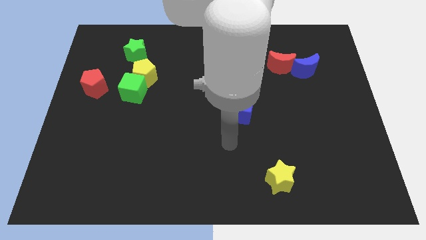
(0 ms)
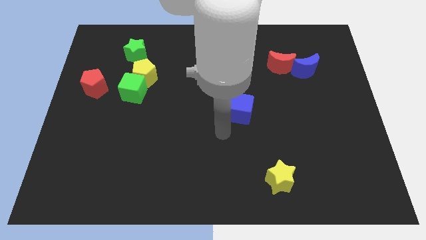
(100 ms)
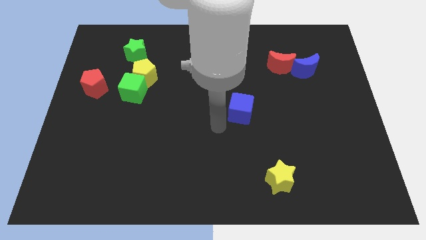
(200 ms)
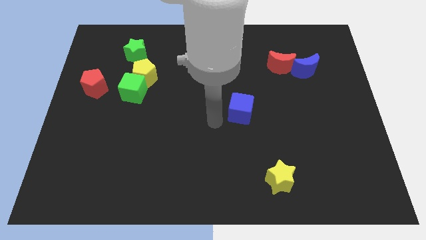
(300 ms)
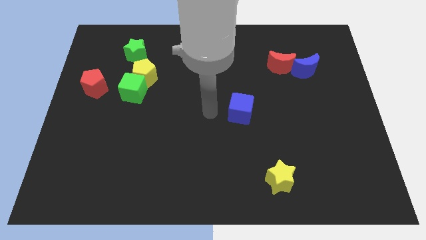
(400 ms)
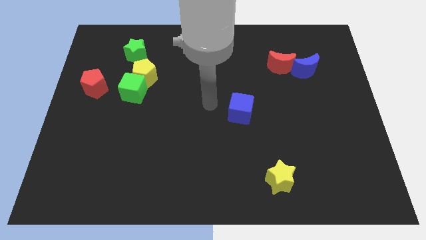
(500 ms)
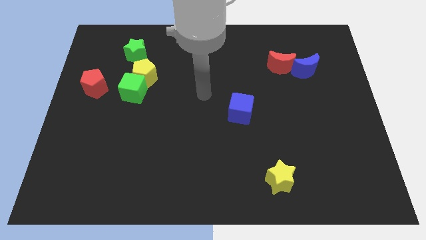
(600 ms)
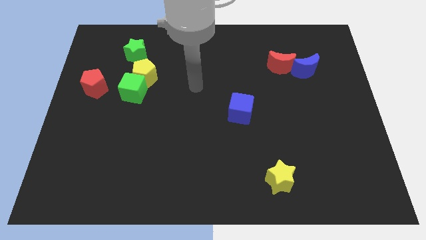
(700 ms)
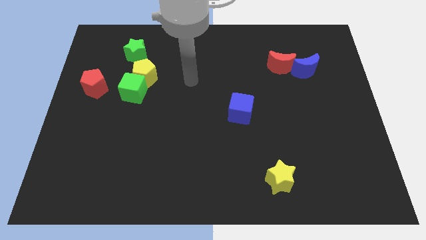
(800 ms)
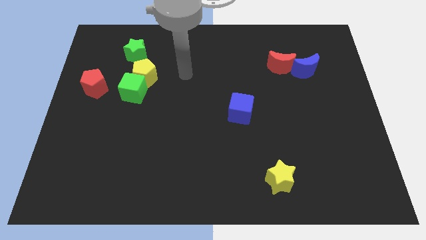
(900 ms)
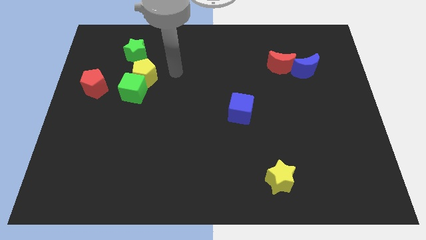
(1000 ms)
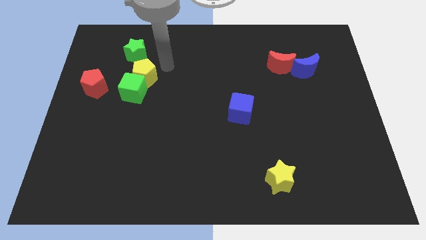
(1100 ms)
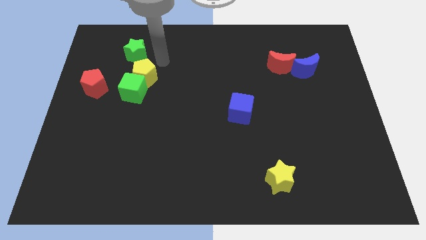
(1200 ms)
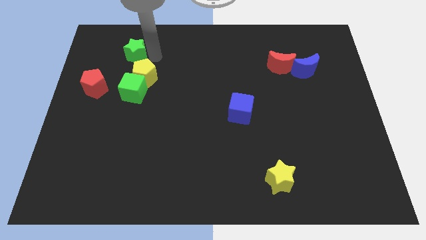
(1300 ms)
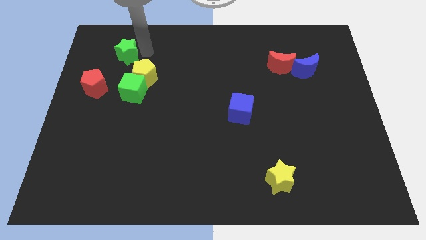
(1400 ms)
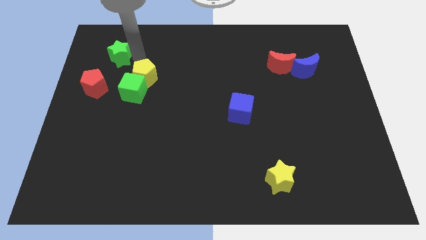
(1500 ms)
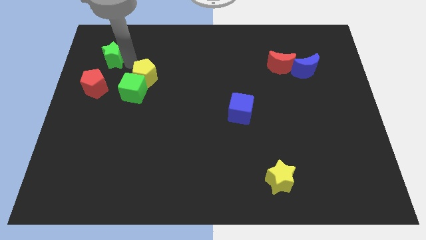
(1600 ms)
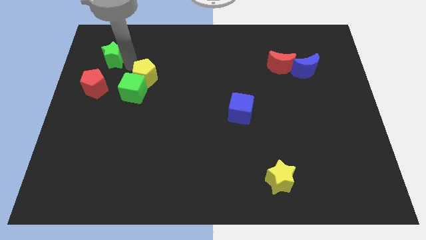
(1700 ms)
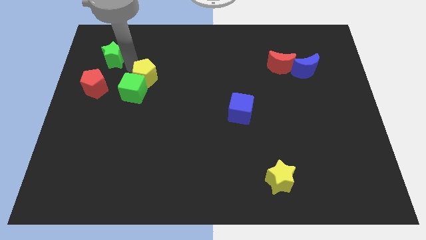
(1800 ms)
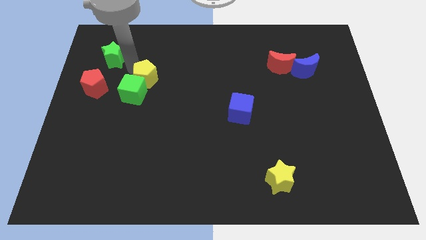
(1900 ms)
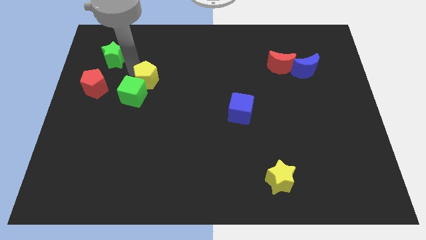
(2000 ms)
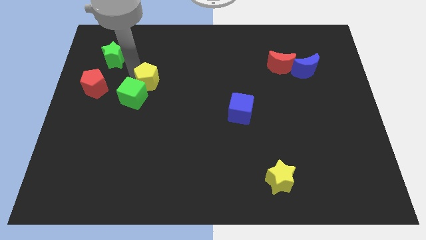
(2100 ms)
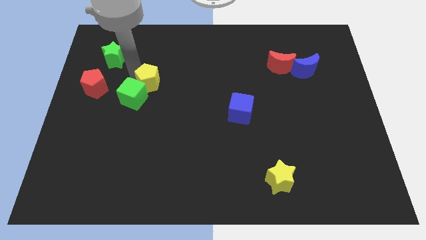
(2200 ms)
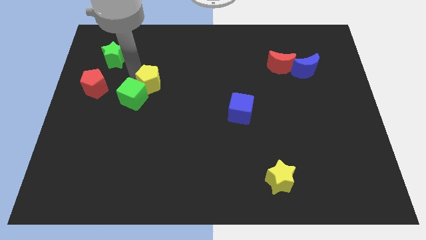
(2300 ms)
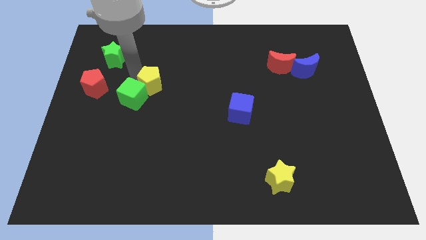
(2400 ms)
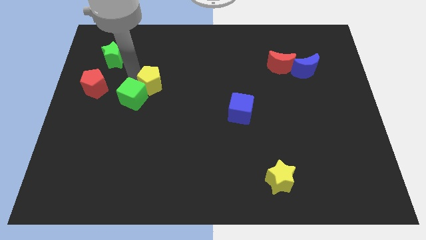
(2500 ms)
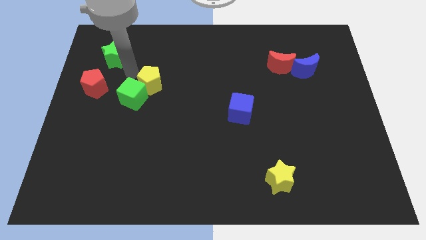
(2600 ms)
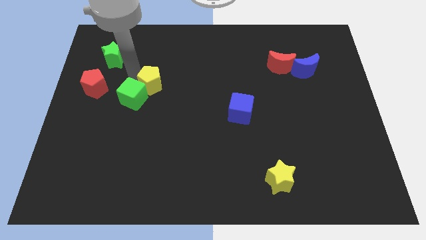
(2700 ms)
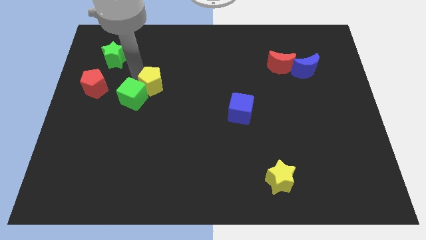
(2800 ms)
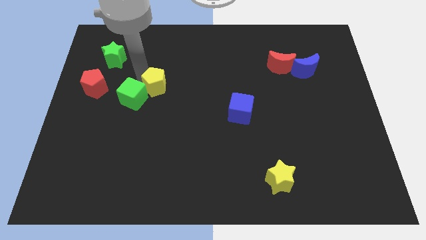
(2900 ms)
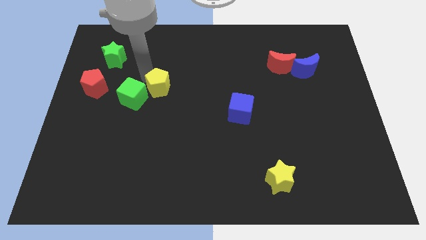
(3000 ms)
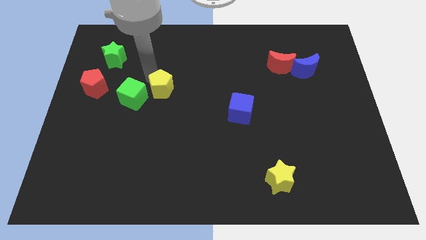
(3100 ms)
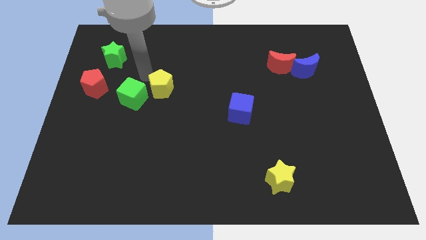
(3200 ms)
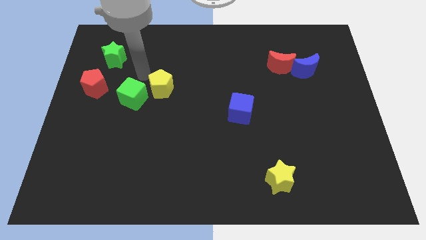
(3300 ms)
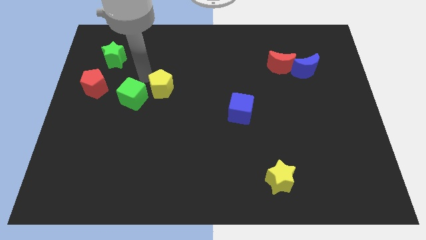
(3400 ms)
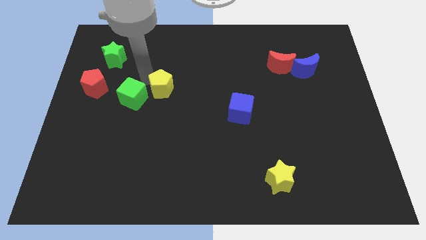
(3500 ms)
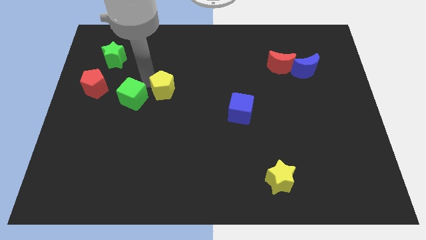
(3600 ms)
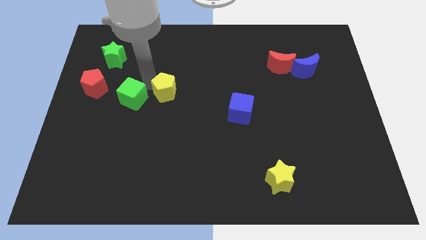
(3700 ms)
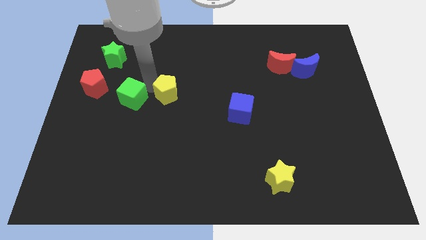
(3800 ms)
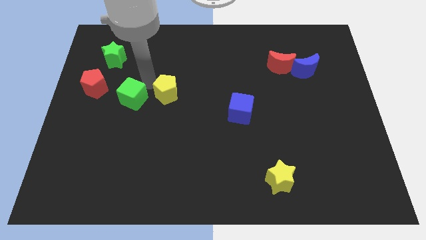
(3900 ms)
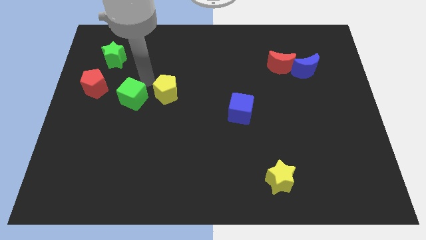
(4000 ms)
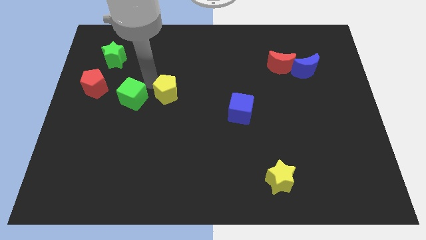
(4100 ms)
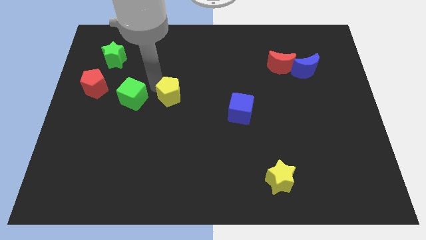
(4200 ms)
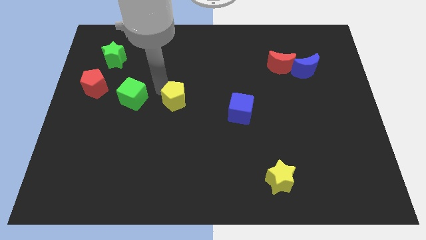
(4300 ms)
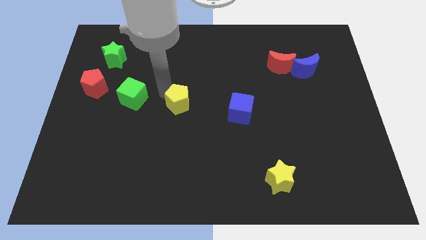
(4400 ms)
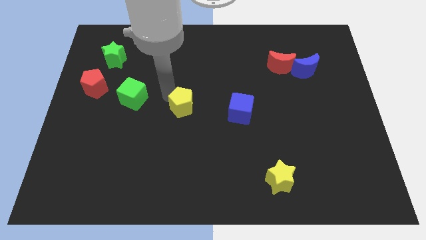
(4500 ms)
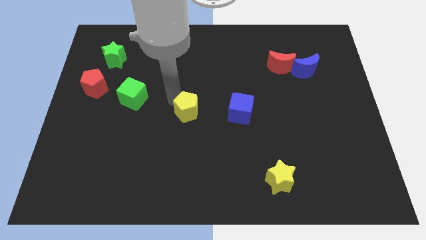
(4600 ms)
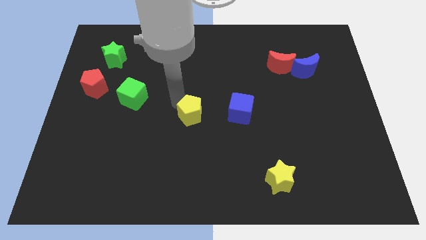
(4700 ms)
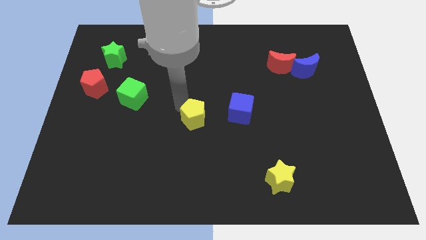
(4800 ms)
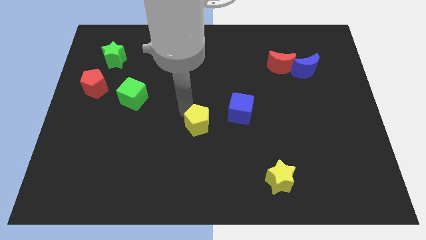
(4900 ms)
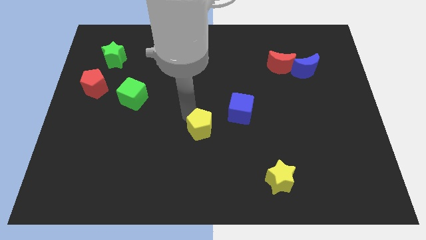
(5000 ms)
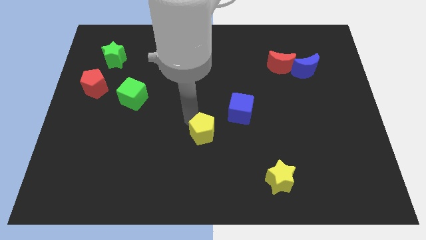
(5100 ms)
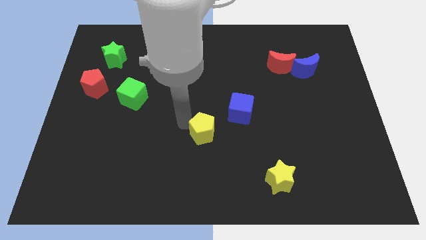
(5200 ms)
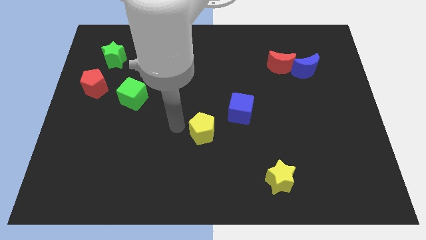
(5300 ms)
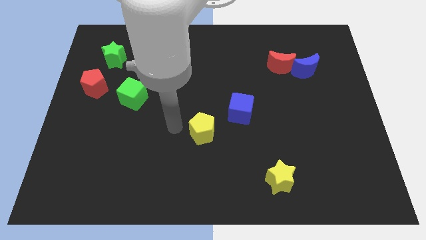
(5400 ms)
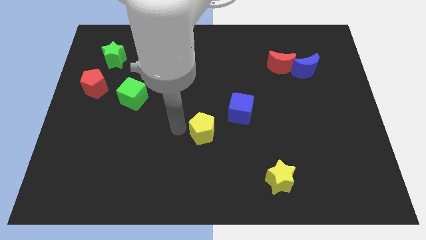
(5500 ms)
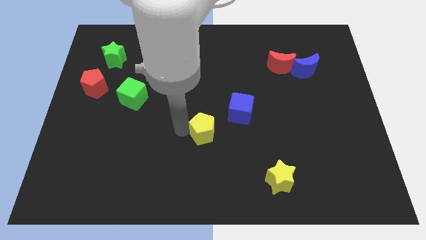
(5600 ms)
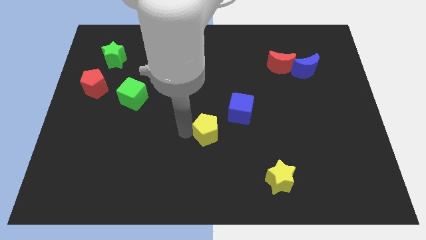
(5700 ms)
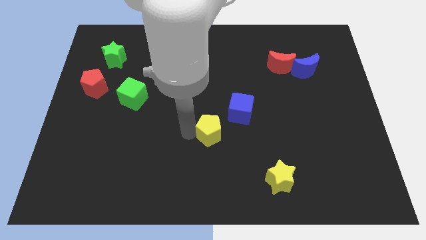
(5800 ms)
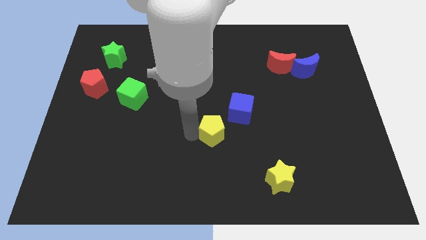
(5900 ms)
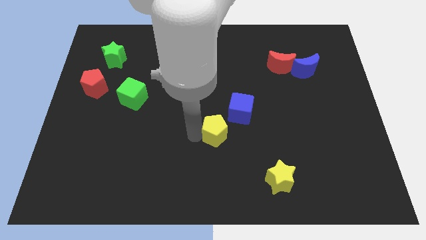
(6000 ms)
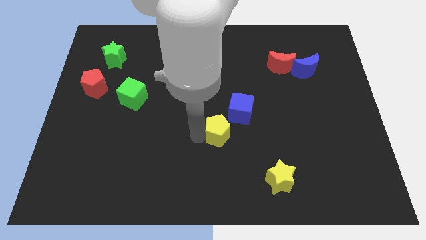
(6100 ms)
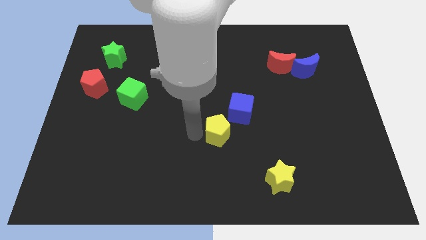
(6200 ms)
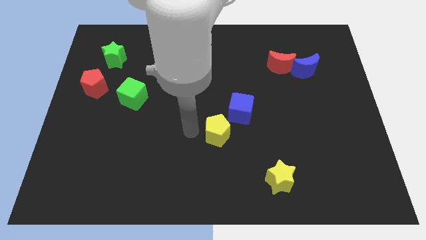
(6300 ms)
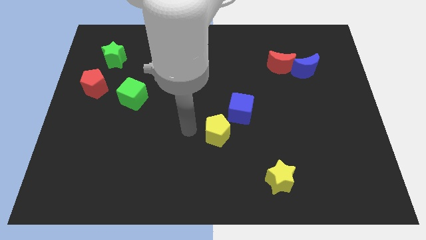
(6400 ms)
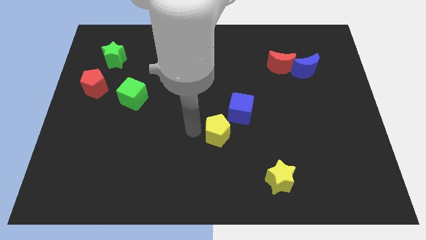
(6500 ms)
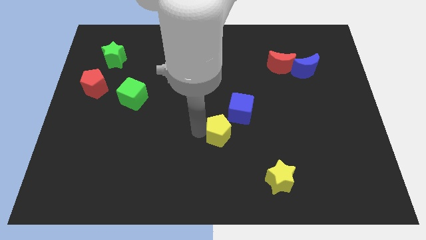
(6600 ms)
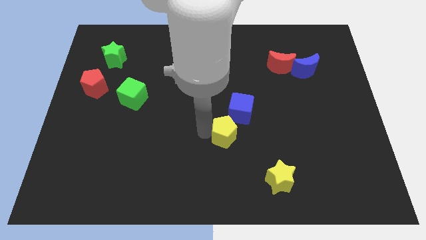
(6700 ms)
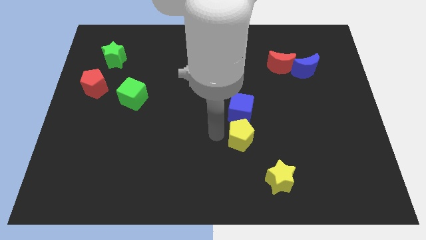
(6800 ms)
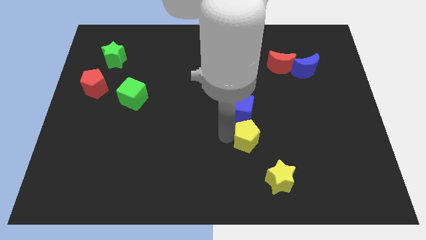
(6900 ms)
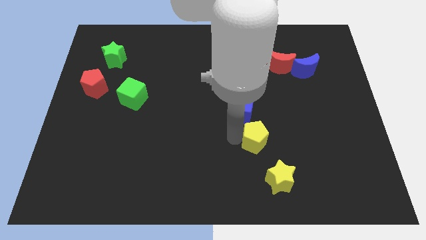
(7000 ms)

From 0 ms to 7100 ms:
push the yellow pentagon above the yellow star

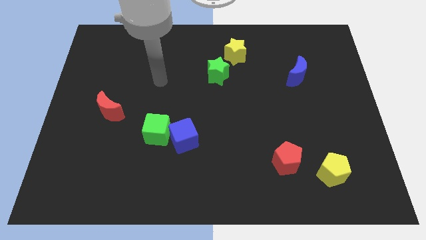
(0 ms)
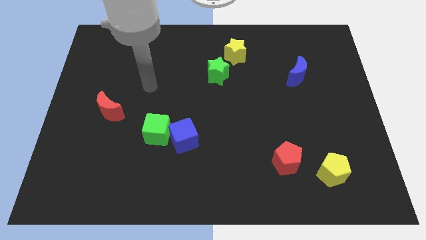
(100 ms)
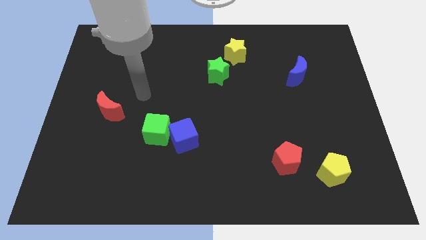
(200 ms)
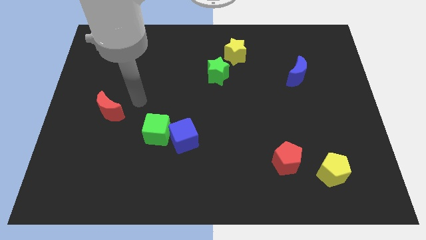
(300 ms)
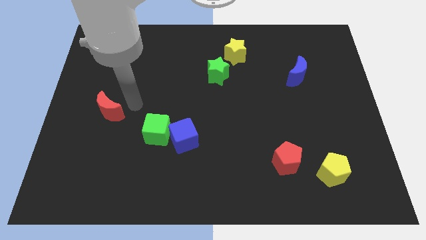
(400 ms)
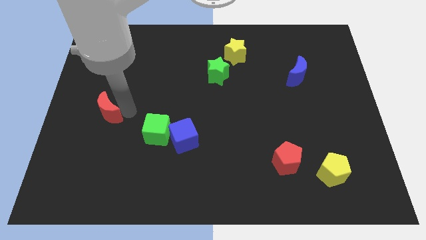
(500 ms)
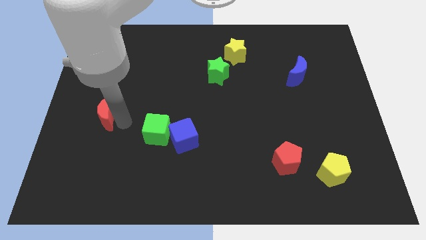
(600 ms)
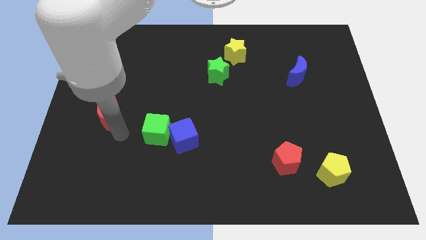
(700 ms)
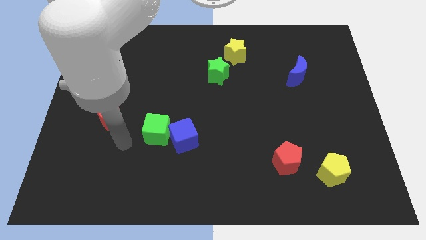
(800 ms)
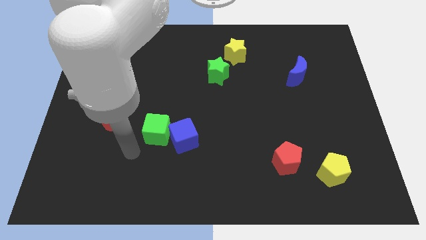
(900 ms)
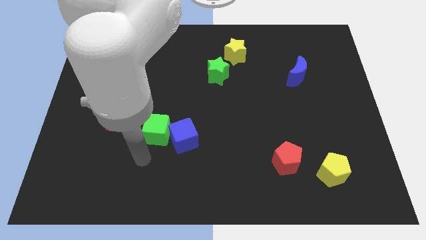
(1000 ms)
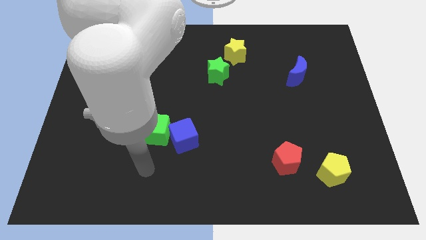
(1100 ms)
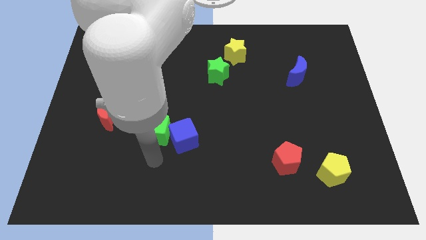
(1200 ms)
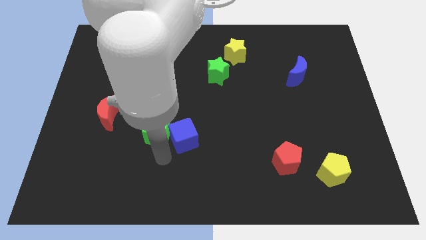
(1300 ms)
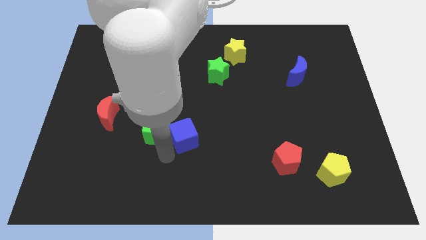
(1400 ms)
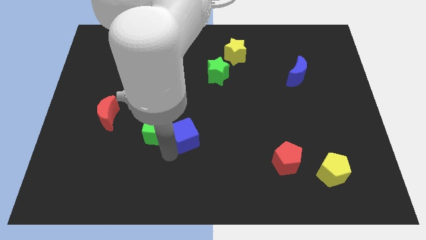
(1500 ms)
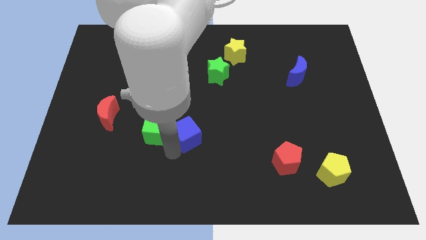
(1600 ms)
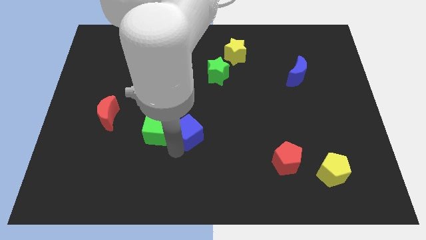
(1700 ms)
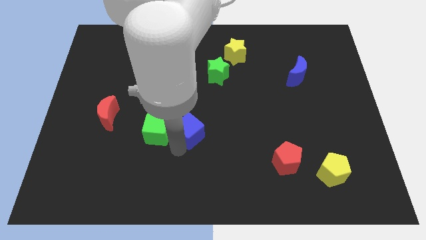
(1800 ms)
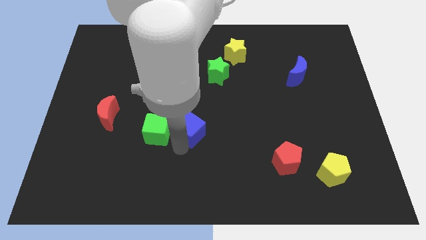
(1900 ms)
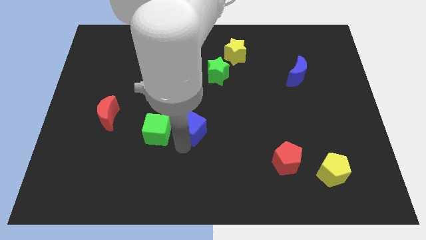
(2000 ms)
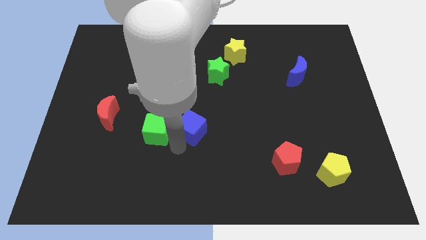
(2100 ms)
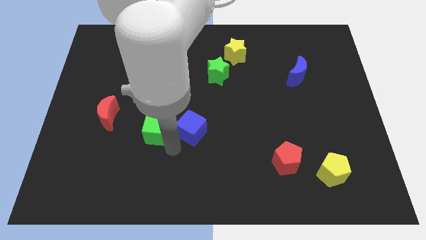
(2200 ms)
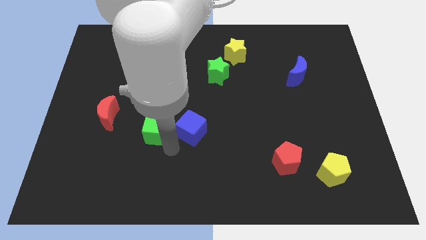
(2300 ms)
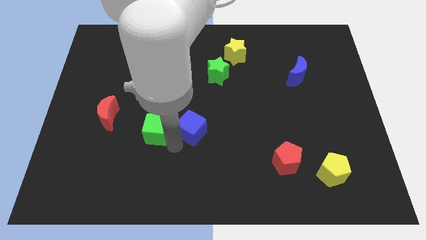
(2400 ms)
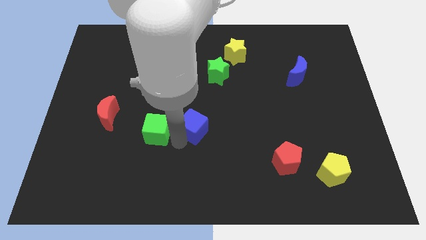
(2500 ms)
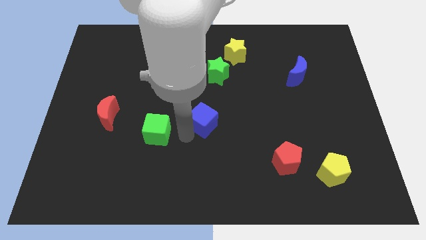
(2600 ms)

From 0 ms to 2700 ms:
push the blue cube to the bottom side of the green star
